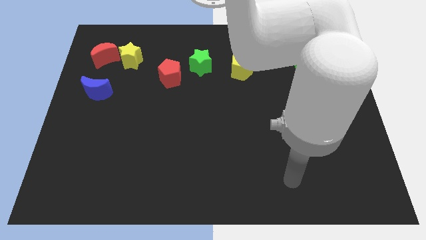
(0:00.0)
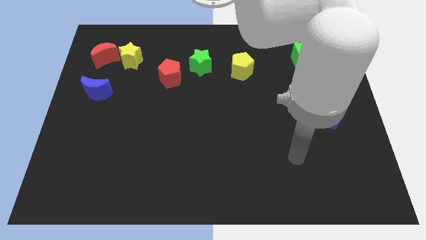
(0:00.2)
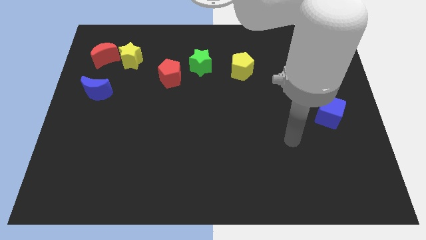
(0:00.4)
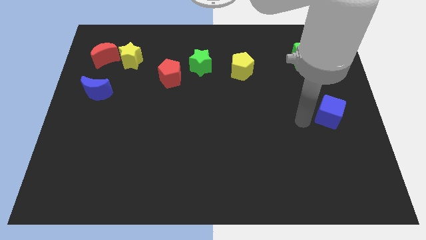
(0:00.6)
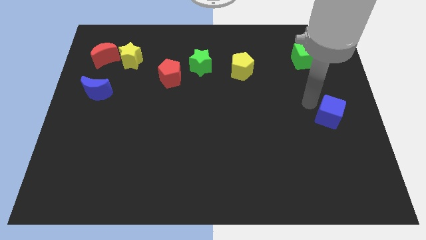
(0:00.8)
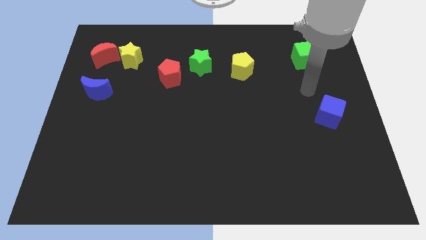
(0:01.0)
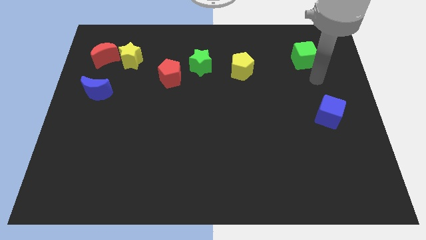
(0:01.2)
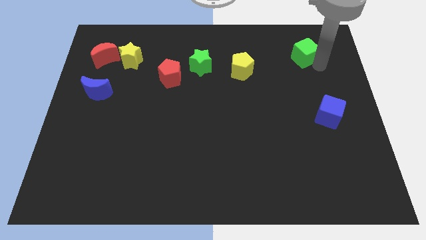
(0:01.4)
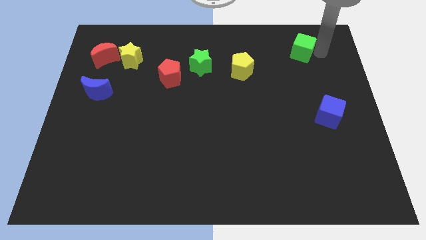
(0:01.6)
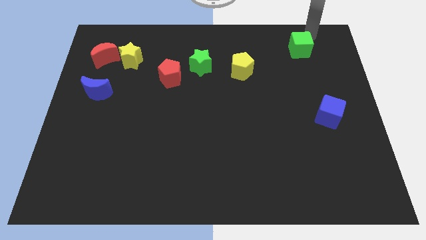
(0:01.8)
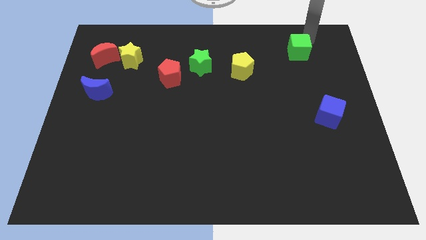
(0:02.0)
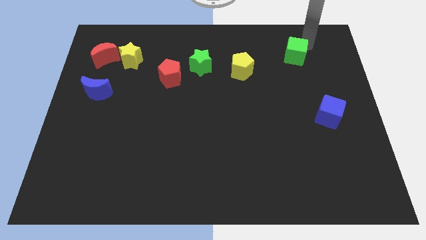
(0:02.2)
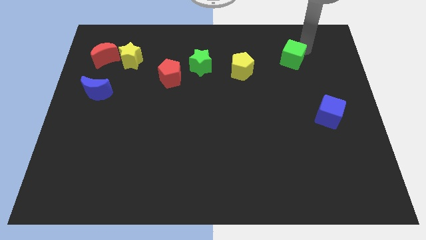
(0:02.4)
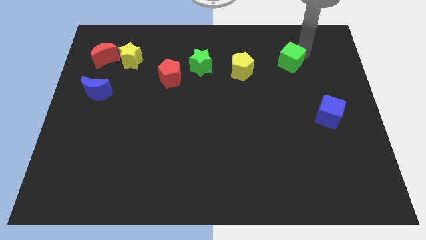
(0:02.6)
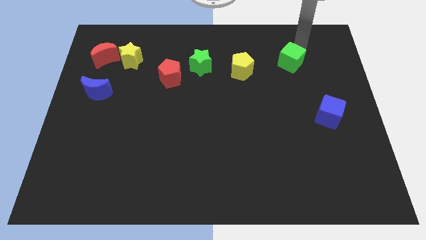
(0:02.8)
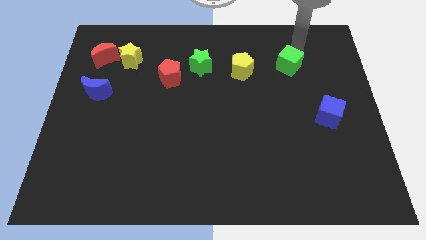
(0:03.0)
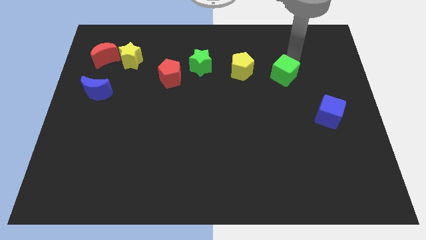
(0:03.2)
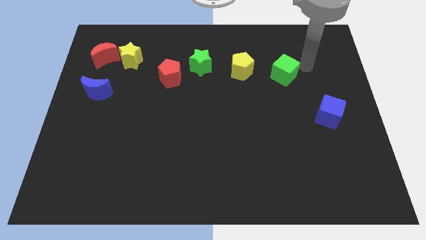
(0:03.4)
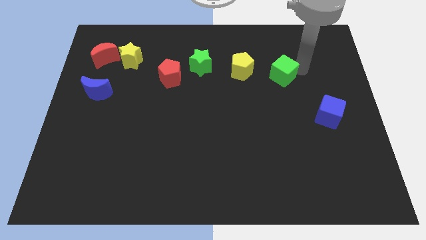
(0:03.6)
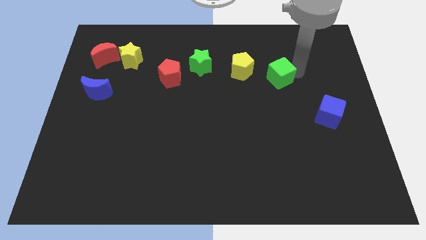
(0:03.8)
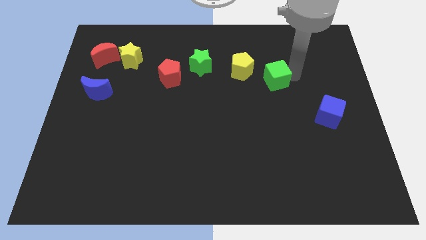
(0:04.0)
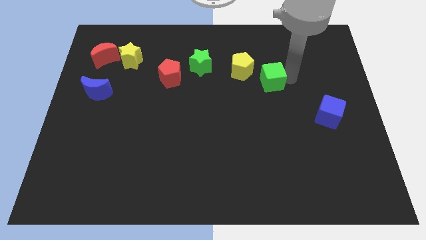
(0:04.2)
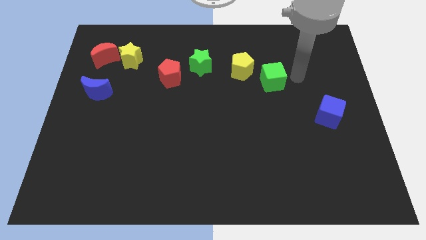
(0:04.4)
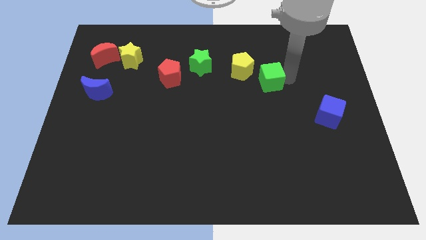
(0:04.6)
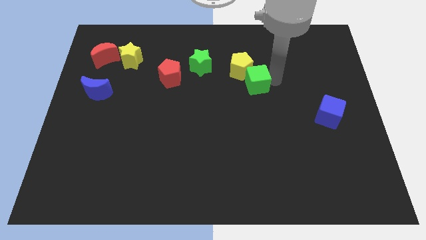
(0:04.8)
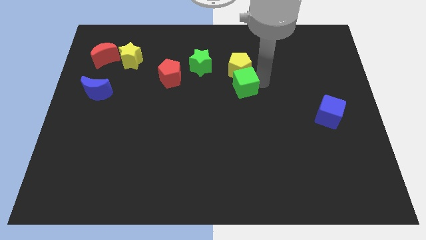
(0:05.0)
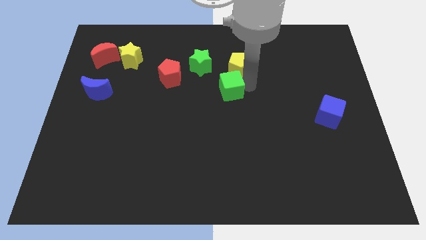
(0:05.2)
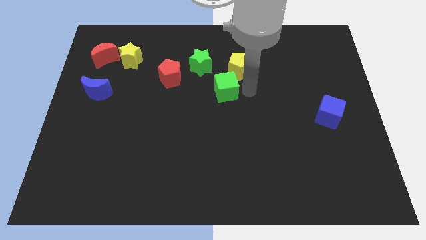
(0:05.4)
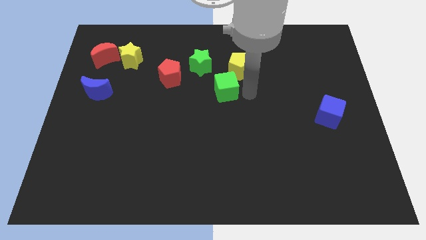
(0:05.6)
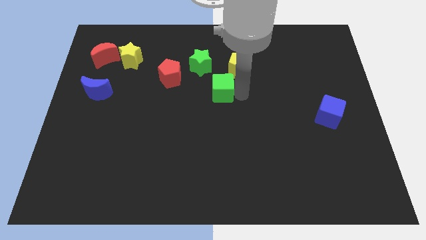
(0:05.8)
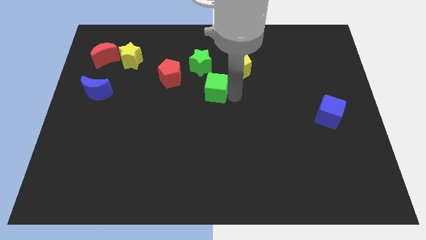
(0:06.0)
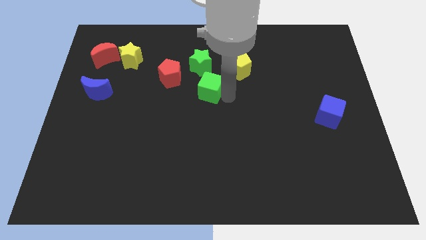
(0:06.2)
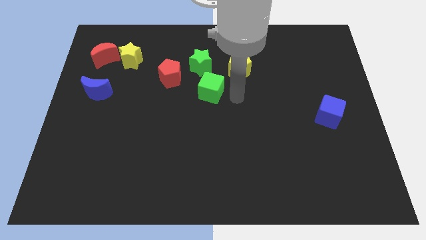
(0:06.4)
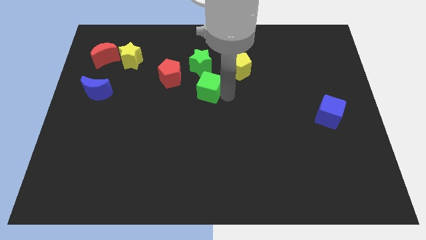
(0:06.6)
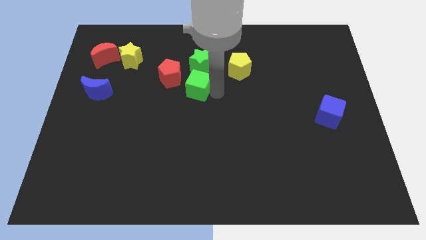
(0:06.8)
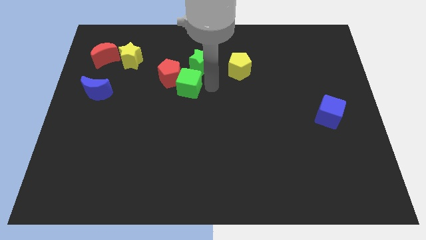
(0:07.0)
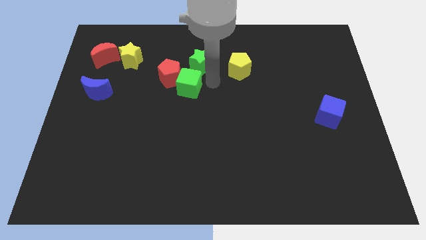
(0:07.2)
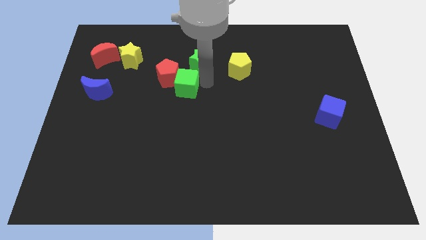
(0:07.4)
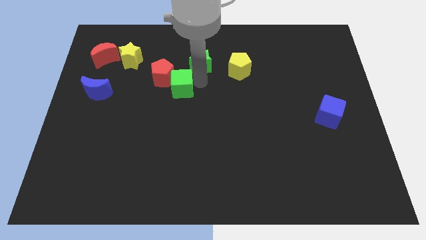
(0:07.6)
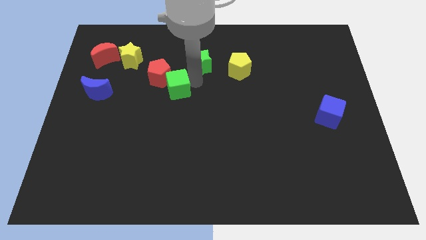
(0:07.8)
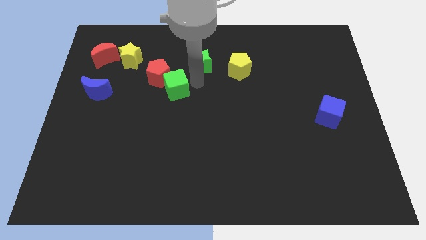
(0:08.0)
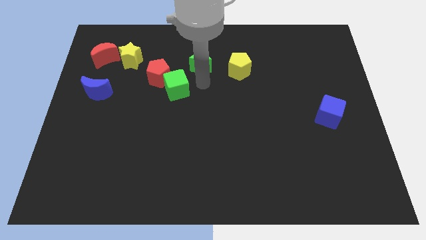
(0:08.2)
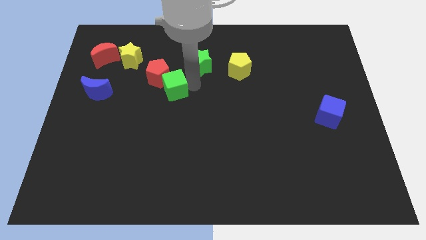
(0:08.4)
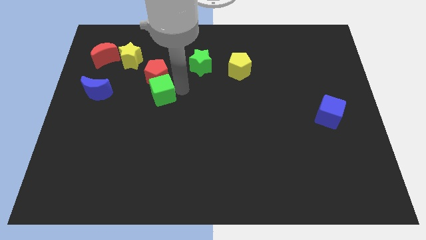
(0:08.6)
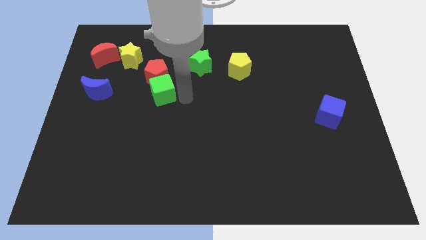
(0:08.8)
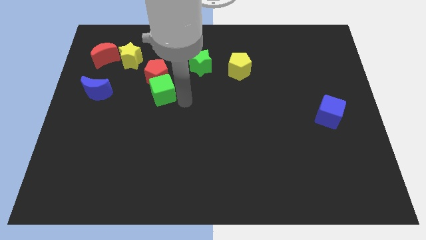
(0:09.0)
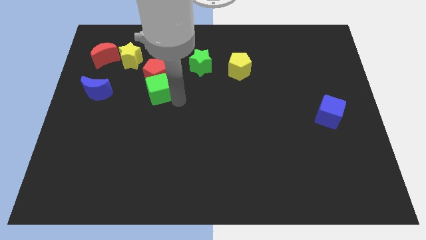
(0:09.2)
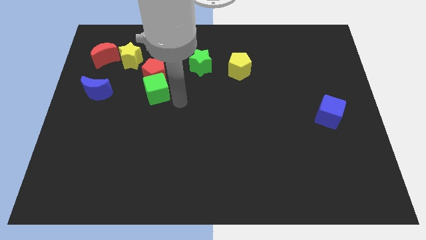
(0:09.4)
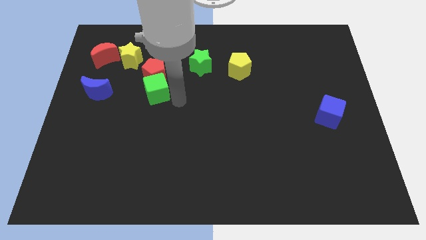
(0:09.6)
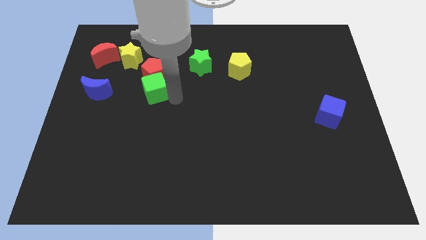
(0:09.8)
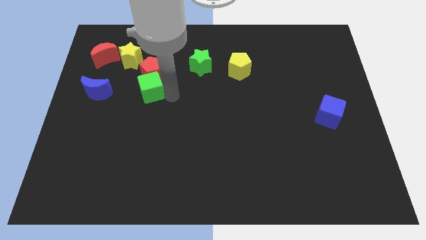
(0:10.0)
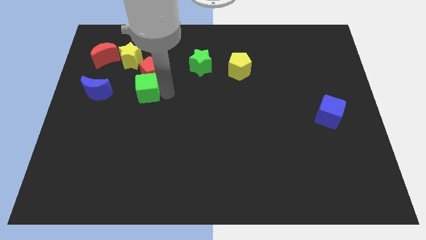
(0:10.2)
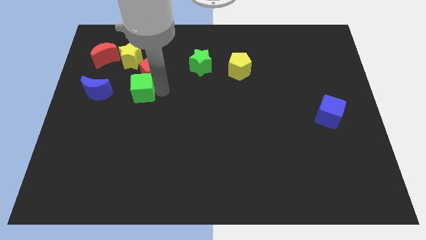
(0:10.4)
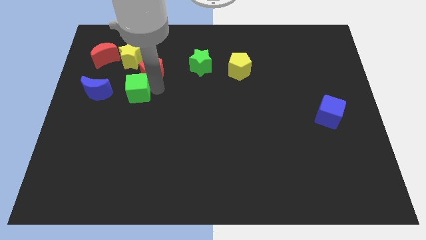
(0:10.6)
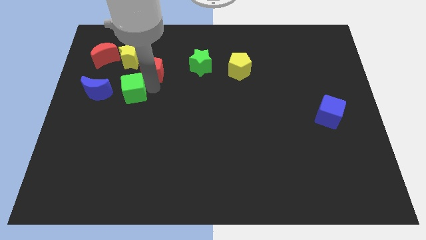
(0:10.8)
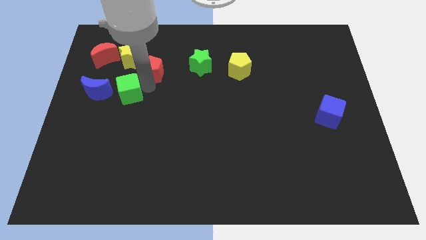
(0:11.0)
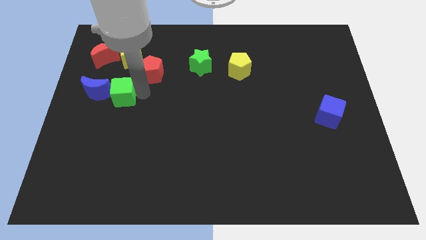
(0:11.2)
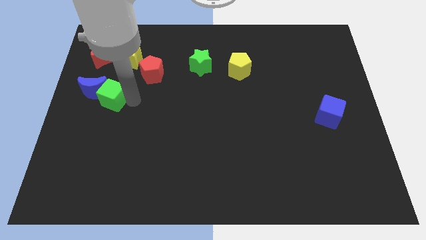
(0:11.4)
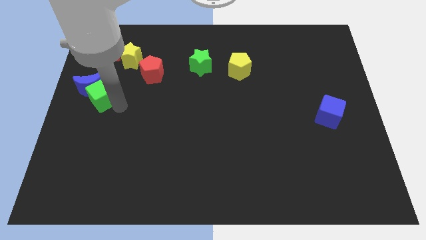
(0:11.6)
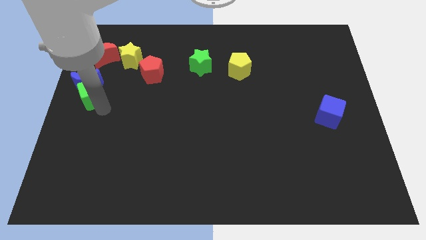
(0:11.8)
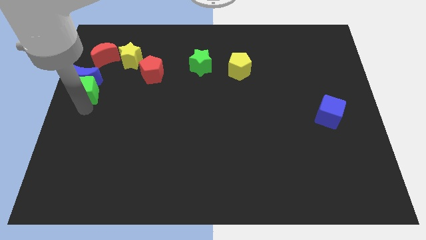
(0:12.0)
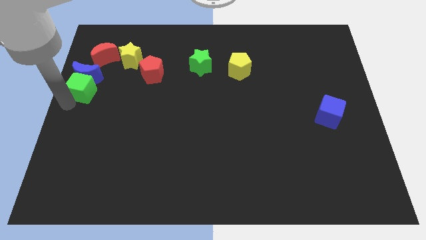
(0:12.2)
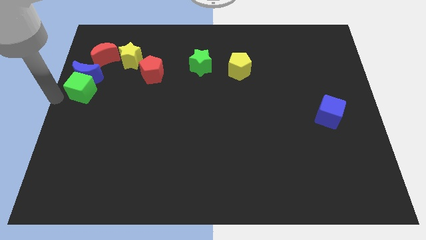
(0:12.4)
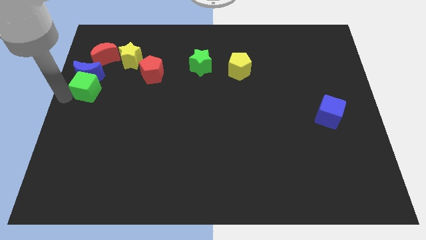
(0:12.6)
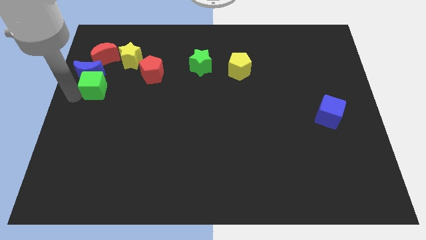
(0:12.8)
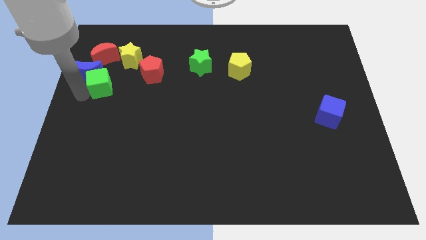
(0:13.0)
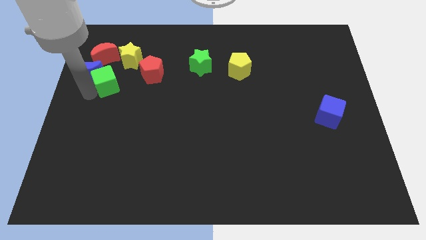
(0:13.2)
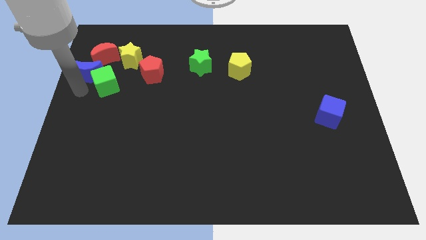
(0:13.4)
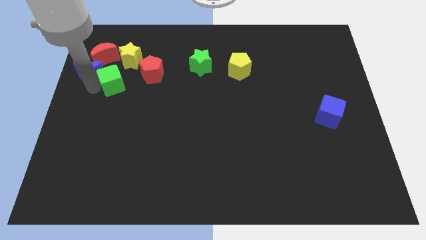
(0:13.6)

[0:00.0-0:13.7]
move the green cube to the bottom right of the red moon
